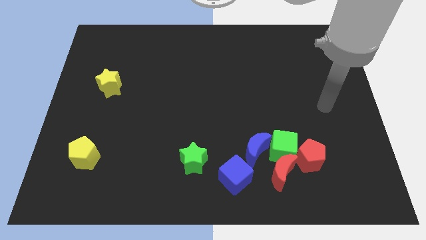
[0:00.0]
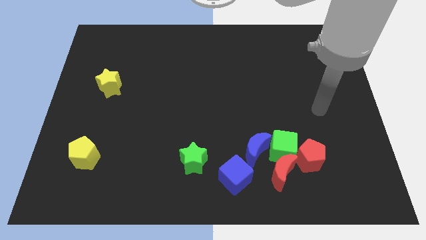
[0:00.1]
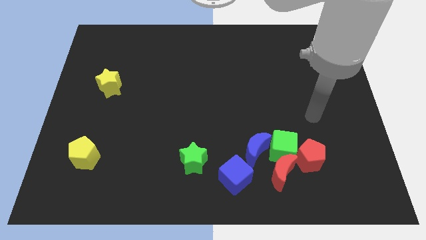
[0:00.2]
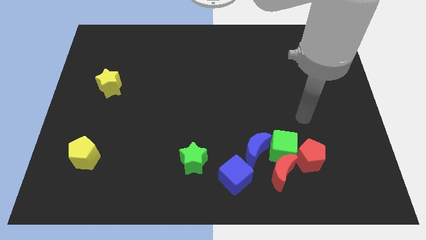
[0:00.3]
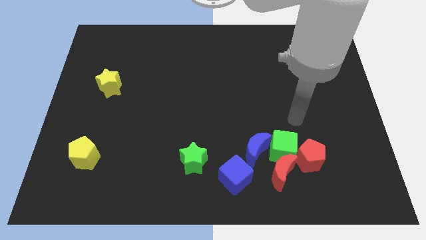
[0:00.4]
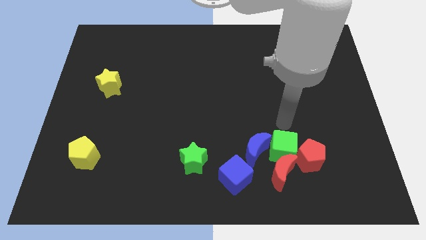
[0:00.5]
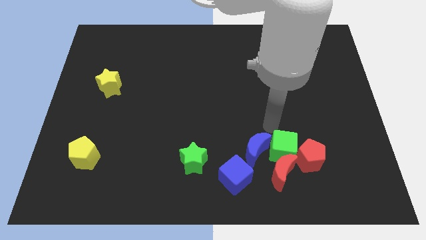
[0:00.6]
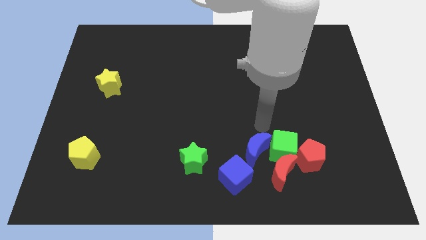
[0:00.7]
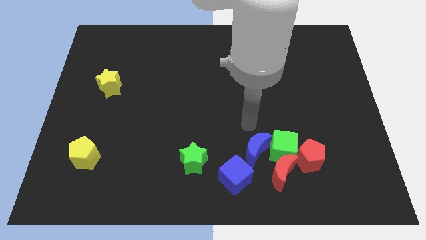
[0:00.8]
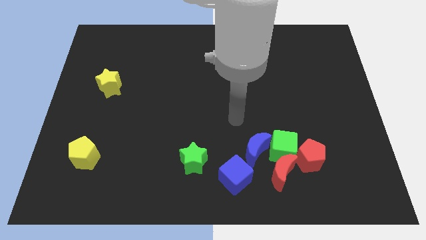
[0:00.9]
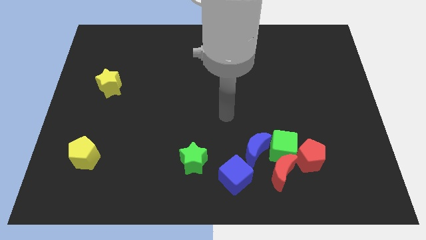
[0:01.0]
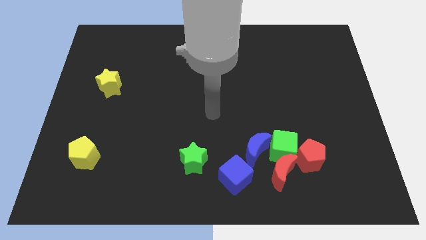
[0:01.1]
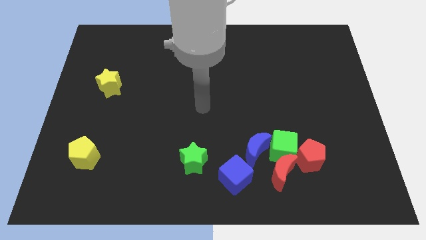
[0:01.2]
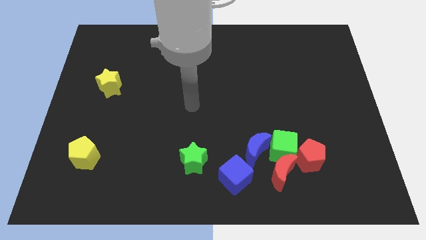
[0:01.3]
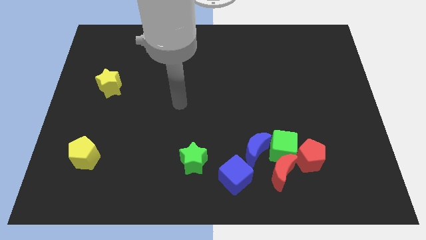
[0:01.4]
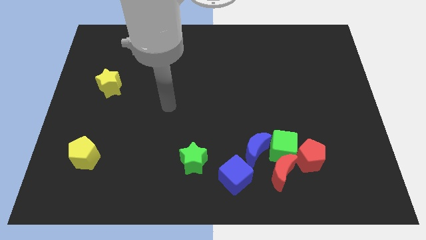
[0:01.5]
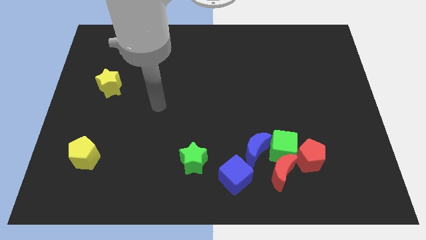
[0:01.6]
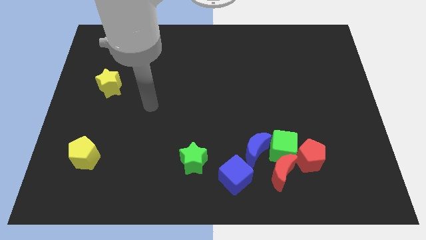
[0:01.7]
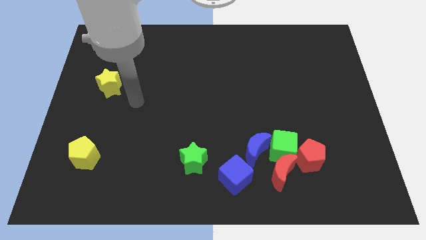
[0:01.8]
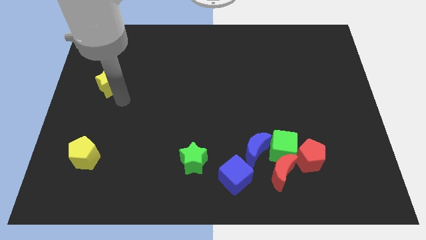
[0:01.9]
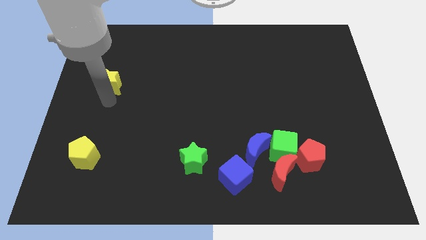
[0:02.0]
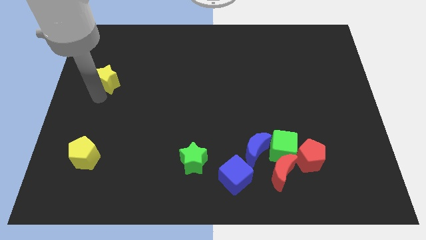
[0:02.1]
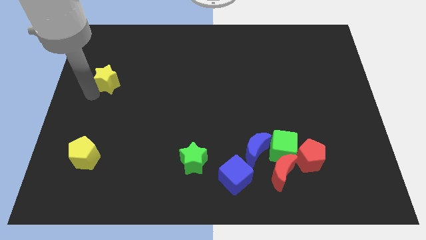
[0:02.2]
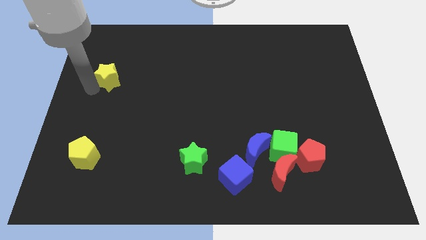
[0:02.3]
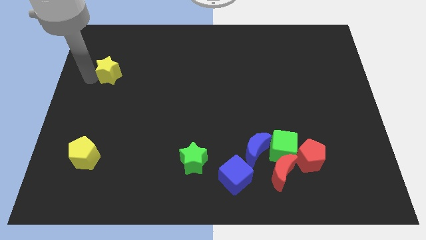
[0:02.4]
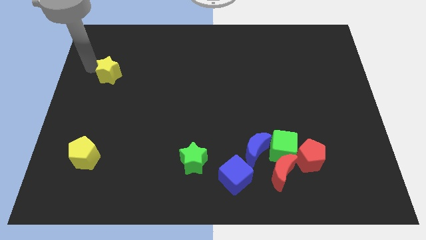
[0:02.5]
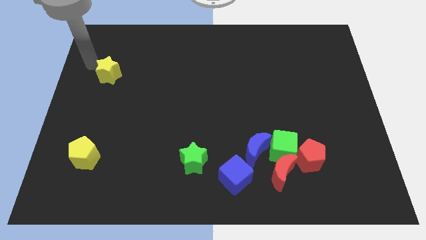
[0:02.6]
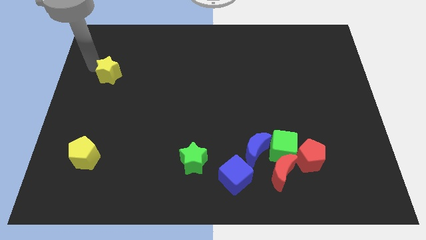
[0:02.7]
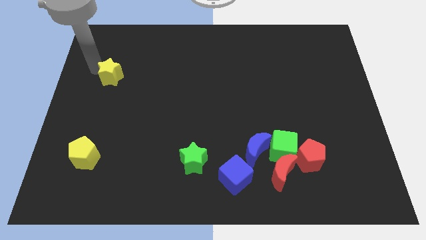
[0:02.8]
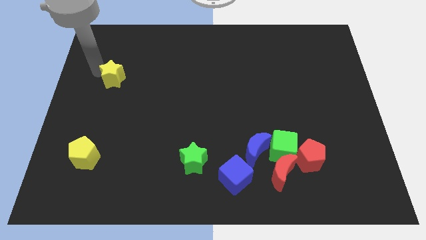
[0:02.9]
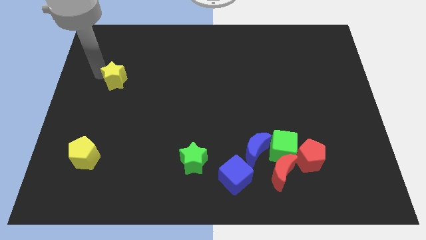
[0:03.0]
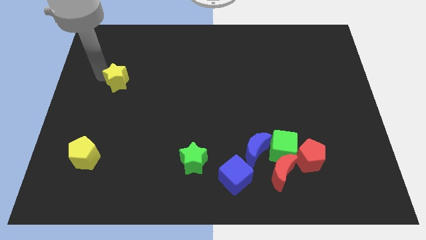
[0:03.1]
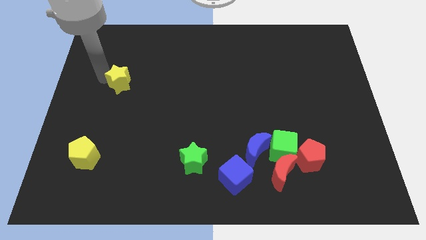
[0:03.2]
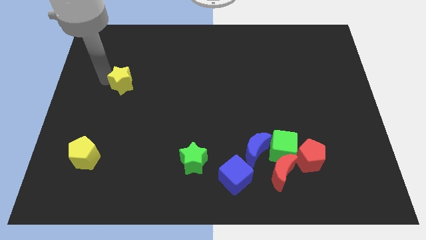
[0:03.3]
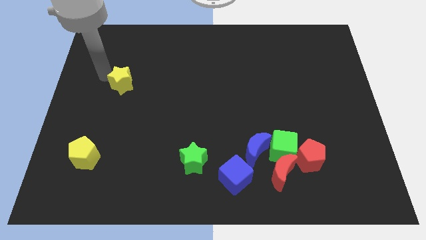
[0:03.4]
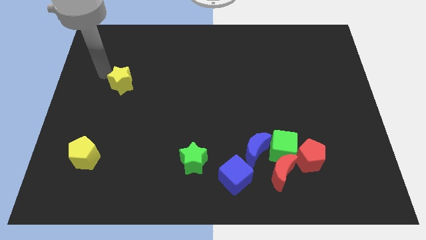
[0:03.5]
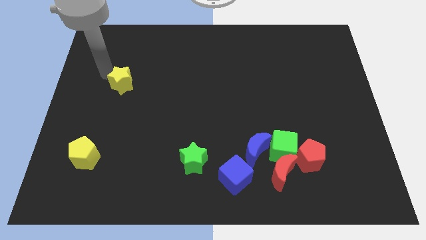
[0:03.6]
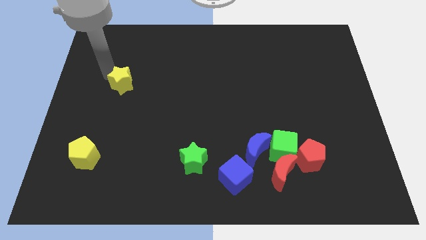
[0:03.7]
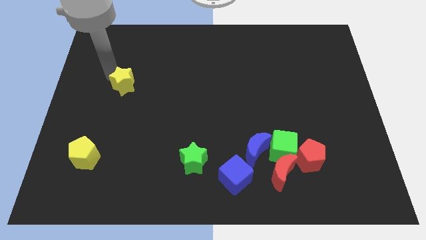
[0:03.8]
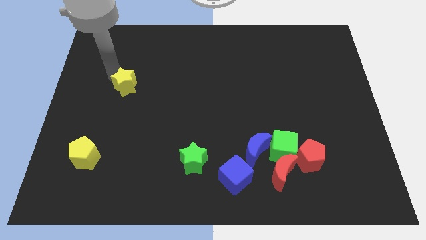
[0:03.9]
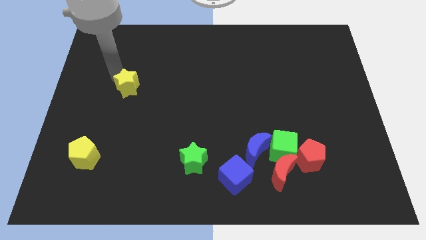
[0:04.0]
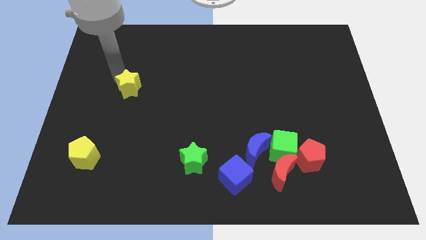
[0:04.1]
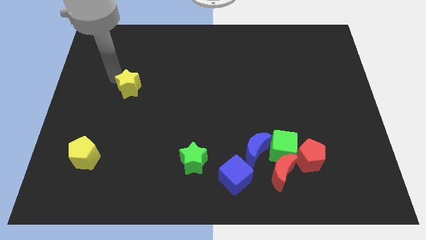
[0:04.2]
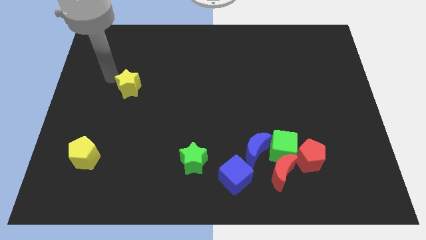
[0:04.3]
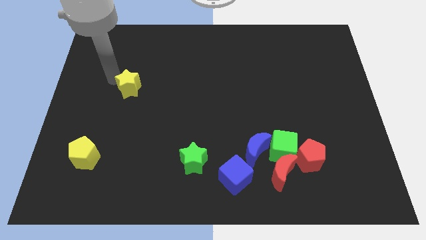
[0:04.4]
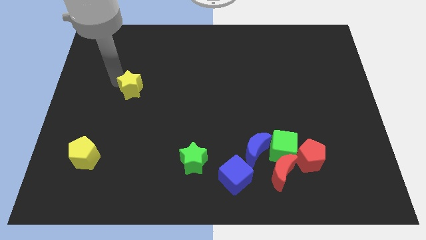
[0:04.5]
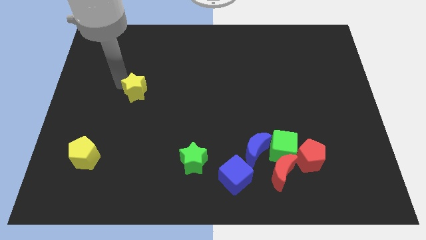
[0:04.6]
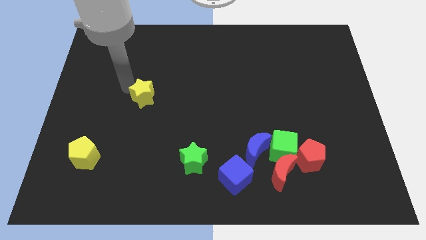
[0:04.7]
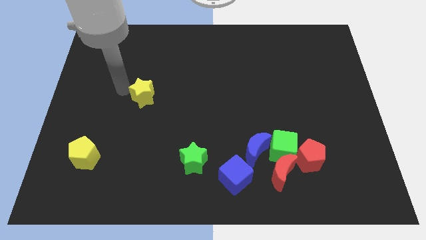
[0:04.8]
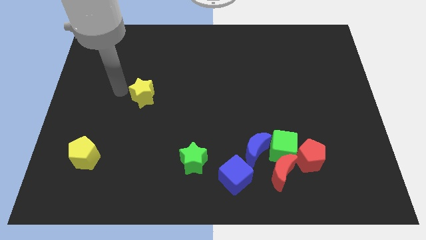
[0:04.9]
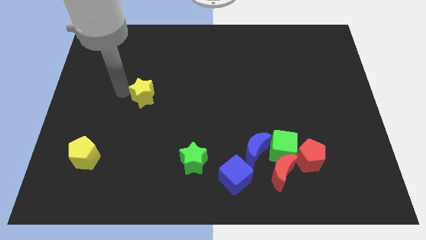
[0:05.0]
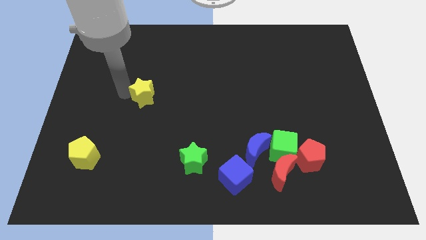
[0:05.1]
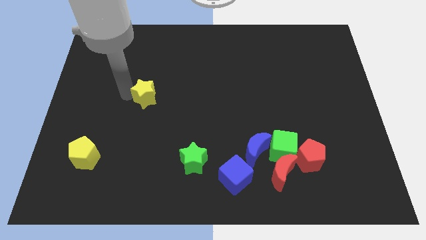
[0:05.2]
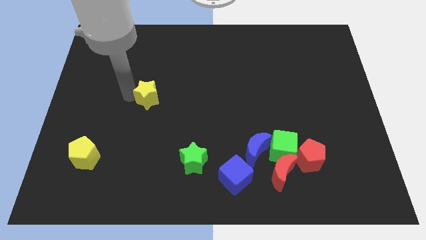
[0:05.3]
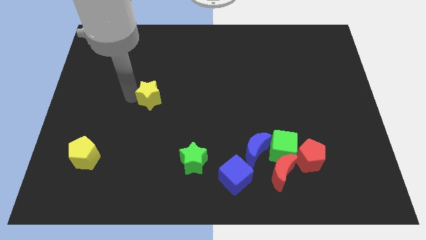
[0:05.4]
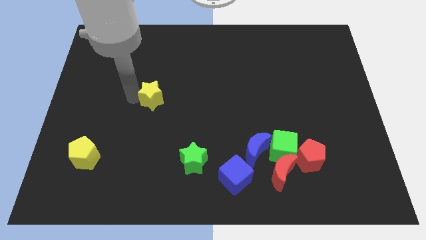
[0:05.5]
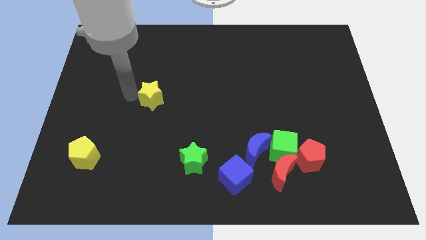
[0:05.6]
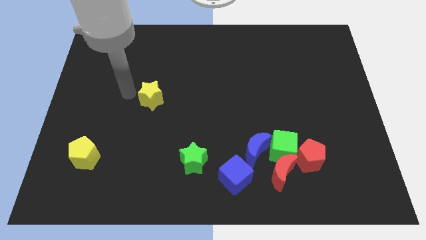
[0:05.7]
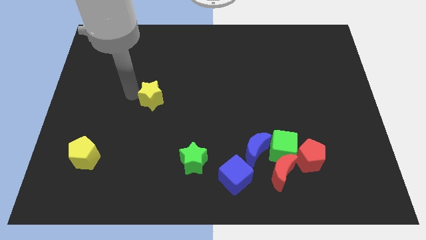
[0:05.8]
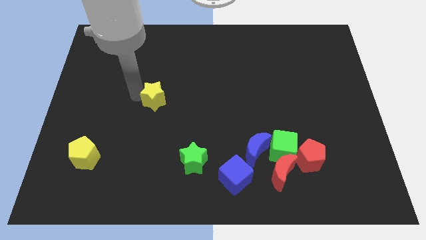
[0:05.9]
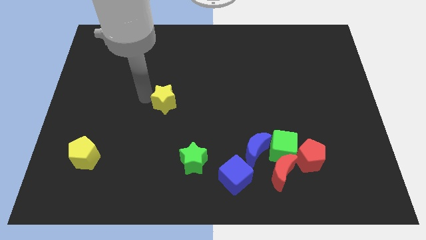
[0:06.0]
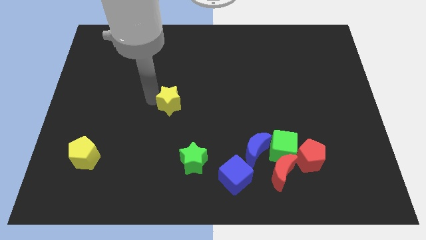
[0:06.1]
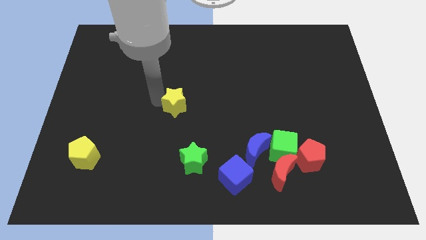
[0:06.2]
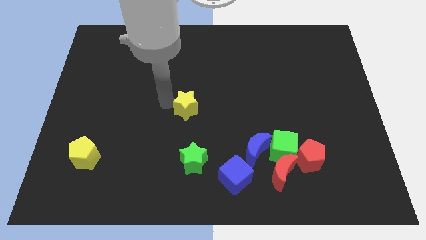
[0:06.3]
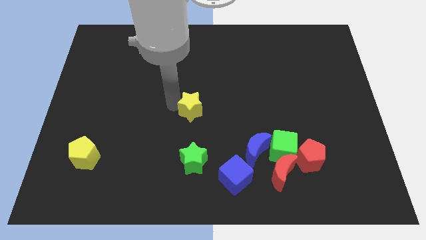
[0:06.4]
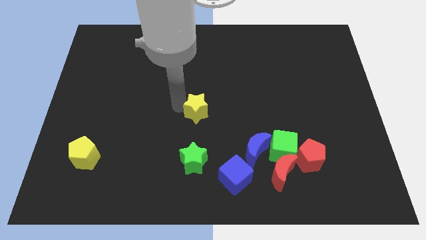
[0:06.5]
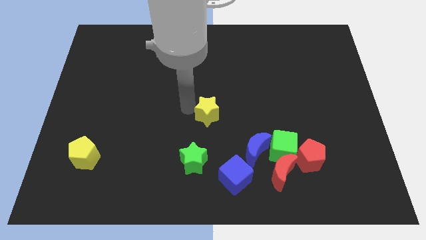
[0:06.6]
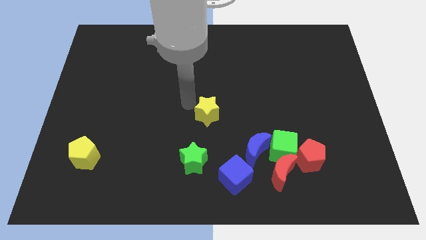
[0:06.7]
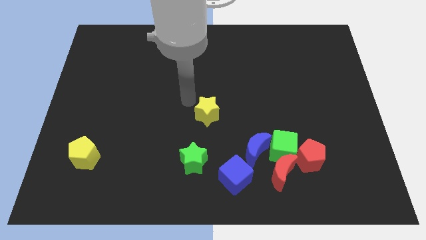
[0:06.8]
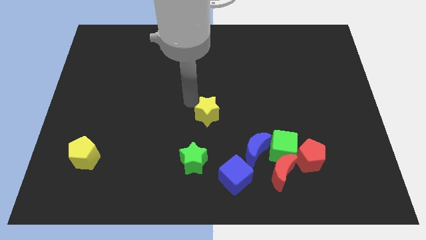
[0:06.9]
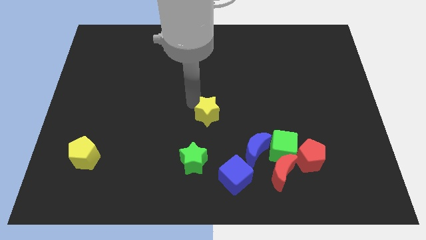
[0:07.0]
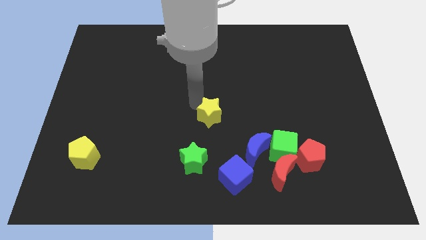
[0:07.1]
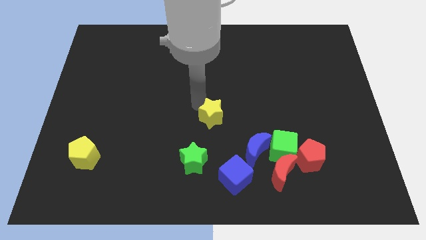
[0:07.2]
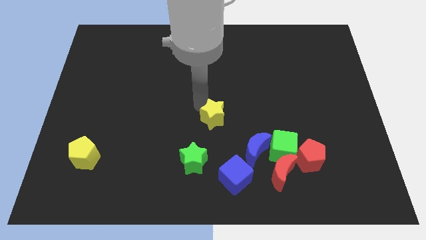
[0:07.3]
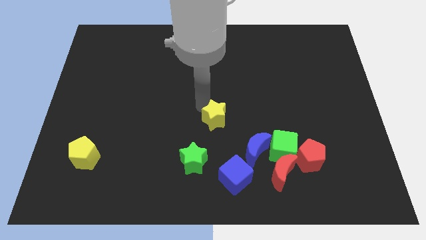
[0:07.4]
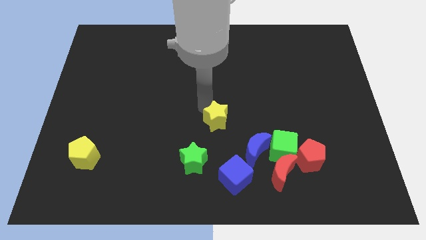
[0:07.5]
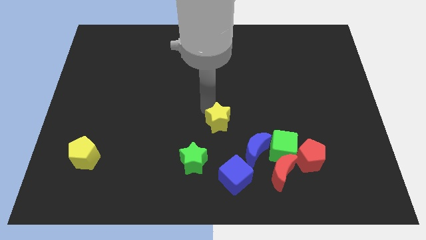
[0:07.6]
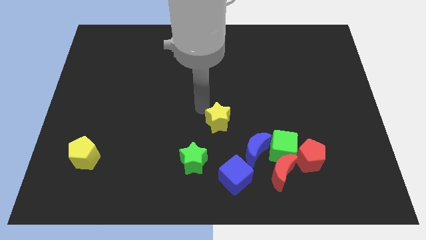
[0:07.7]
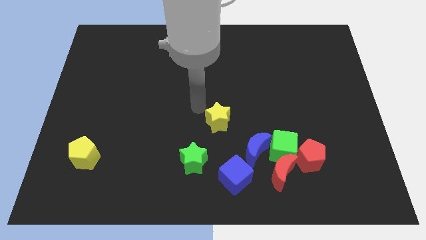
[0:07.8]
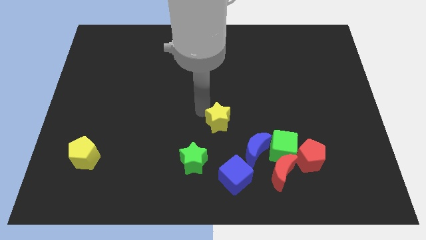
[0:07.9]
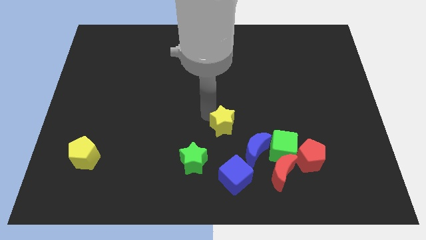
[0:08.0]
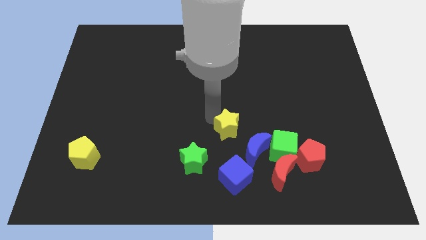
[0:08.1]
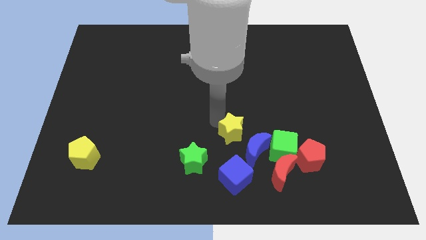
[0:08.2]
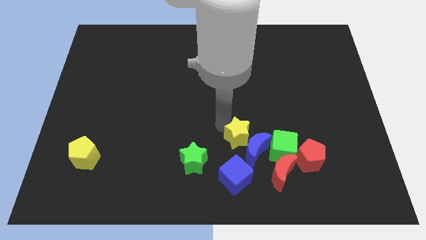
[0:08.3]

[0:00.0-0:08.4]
put the yellow star close to the blue moon
